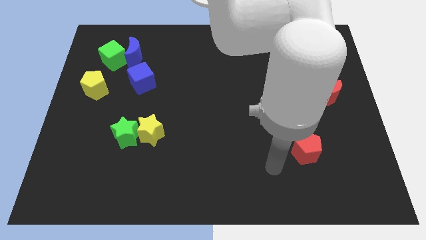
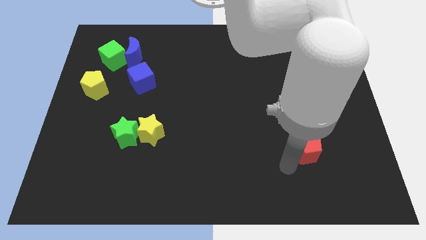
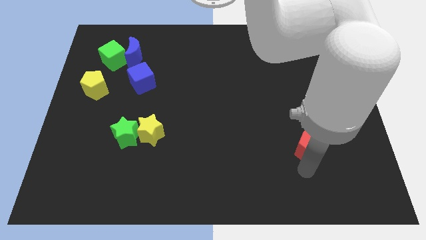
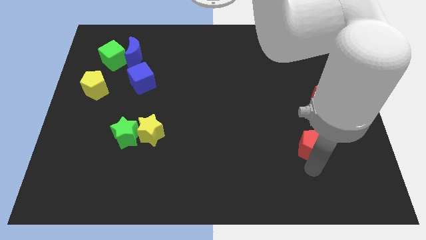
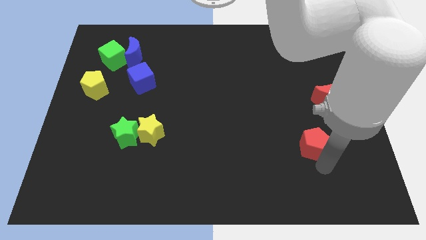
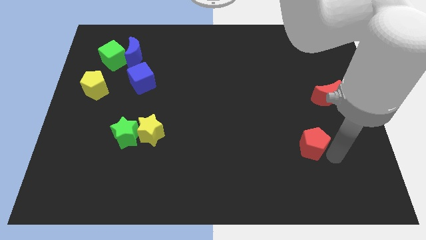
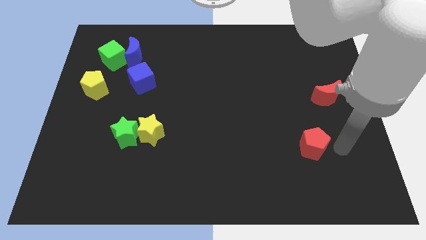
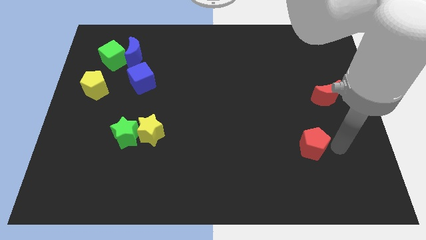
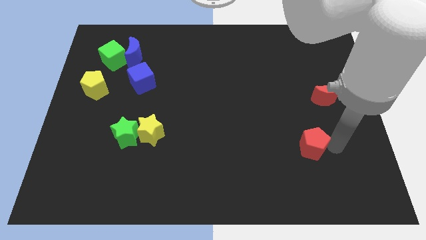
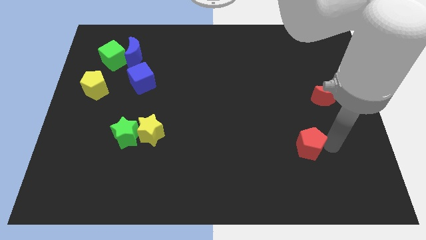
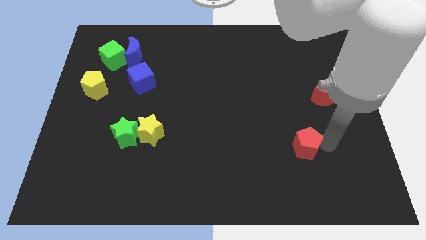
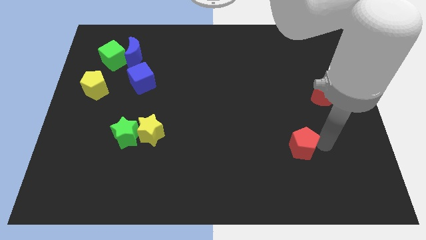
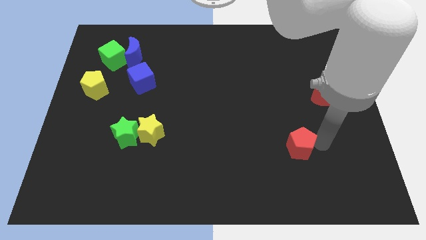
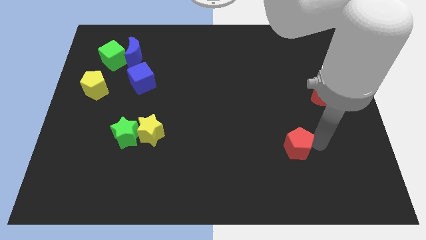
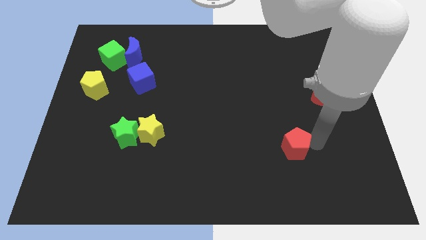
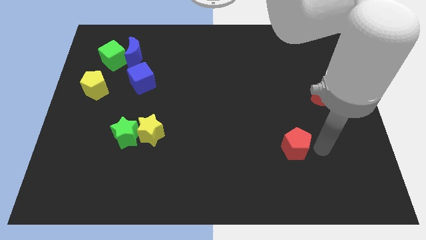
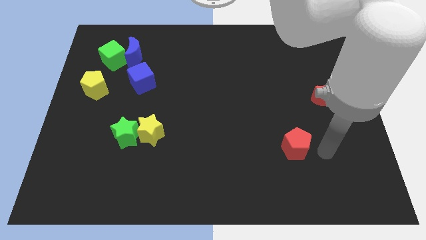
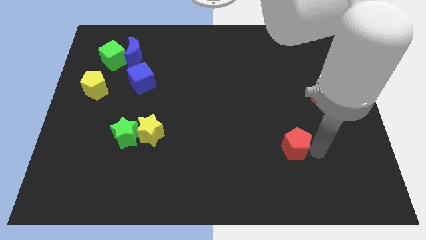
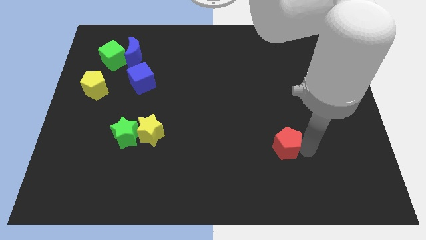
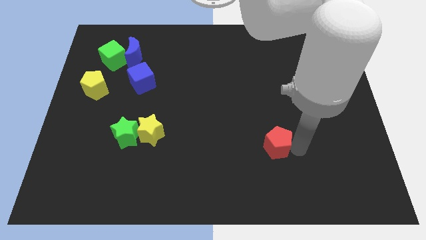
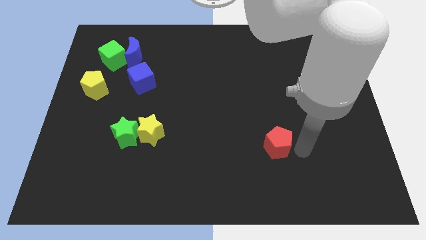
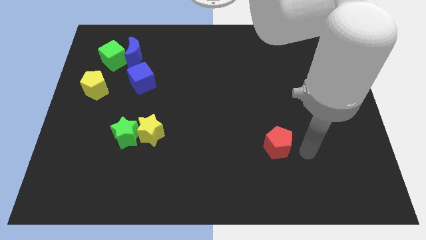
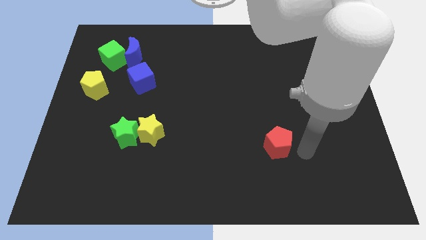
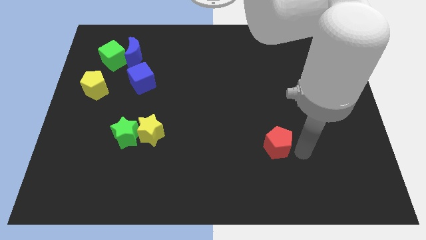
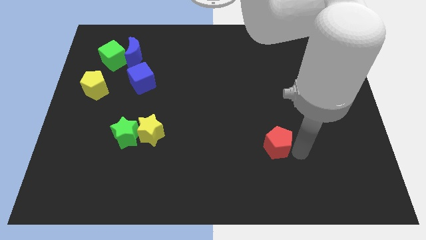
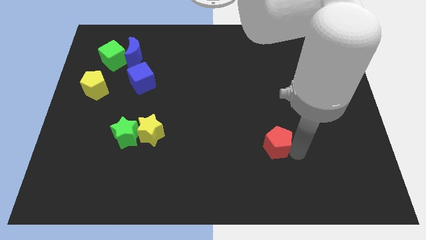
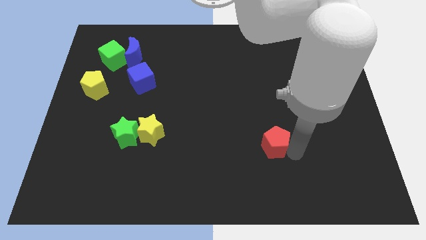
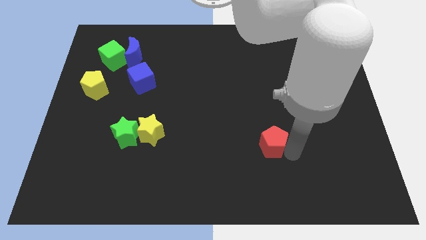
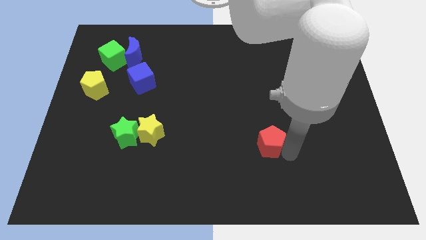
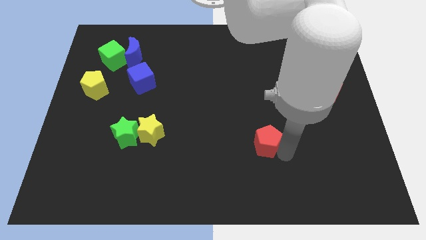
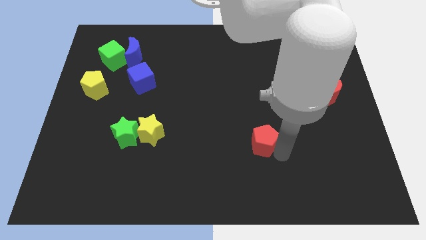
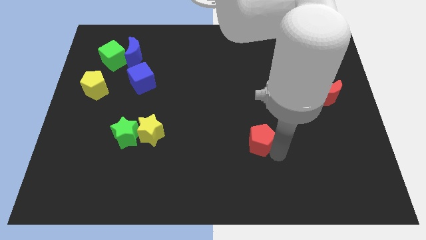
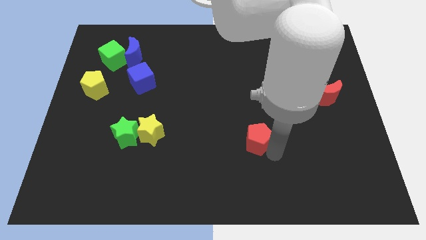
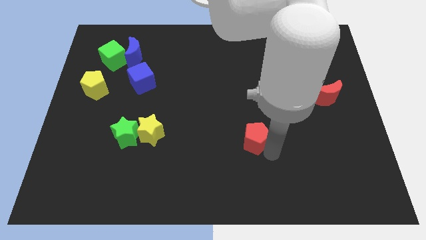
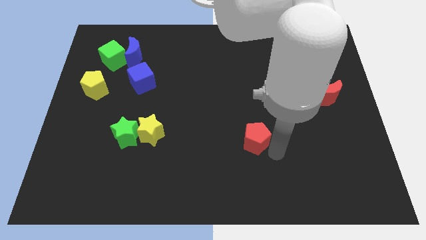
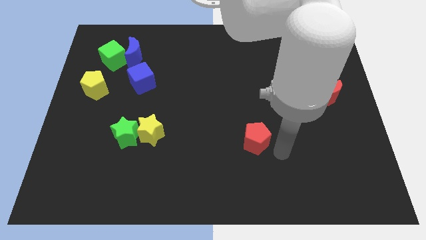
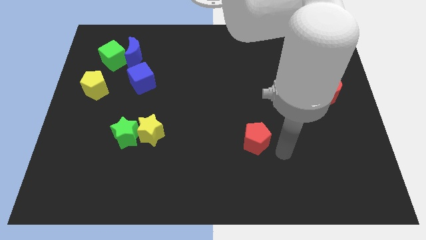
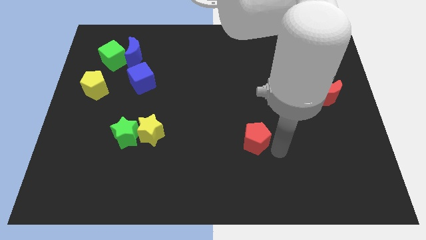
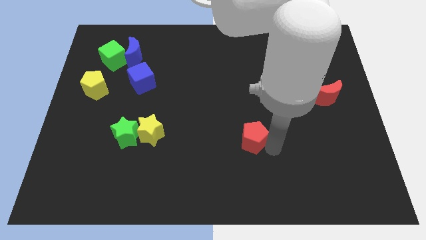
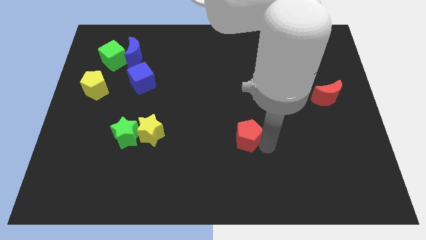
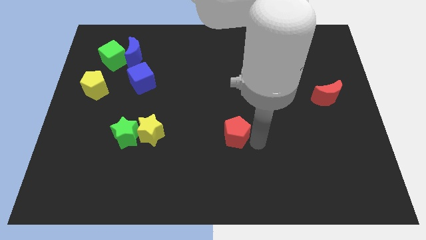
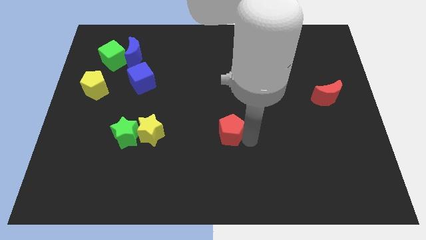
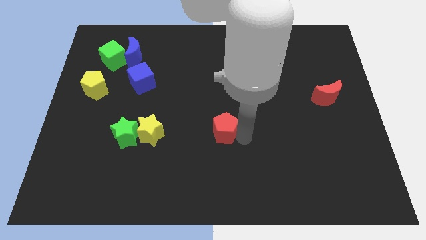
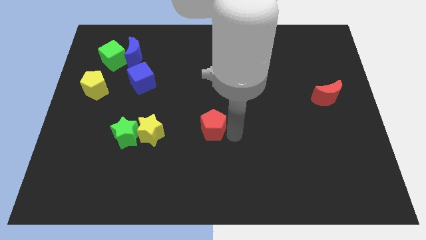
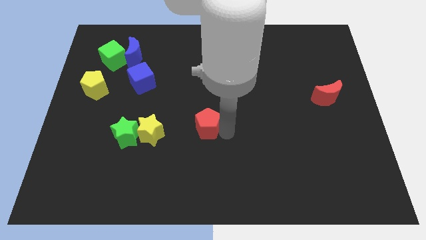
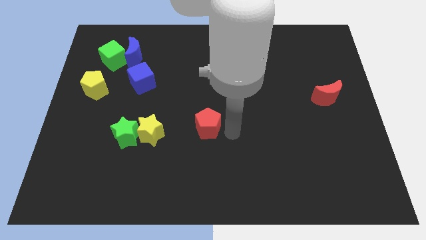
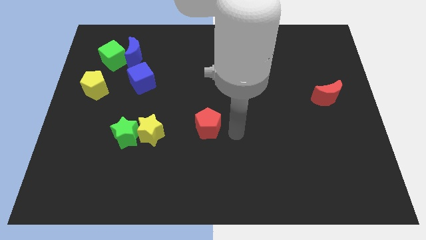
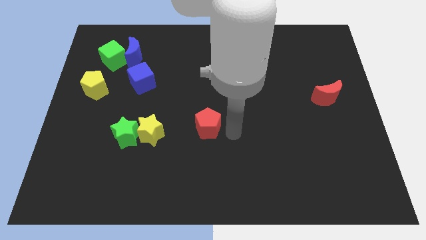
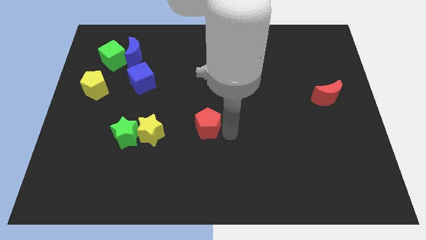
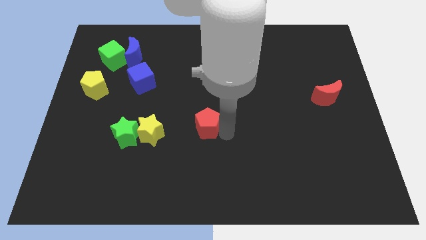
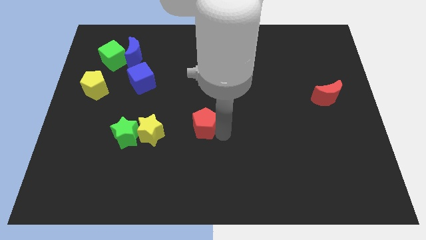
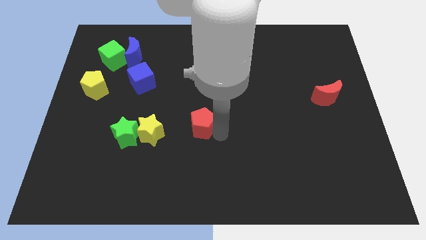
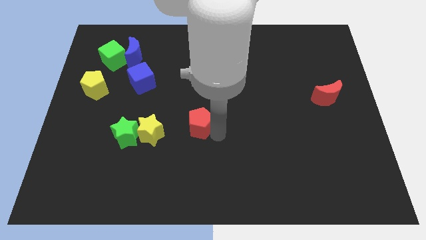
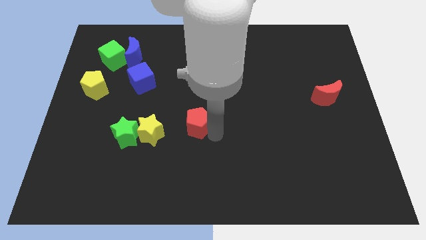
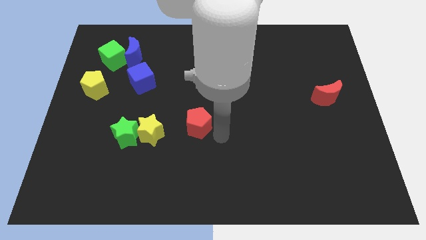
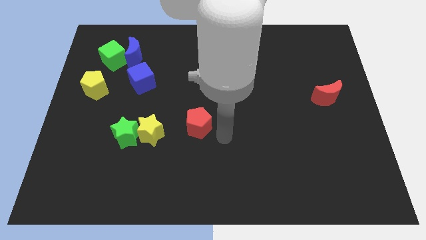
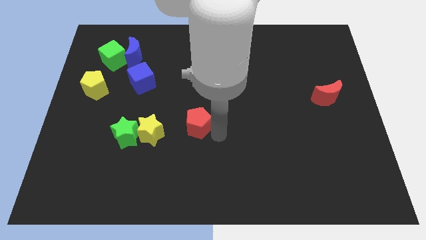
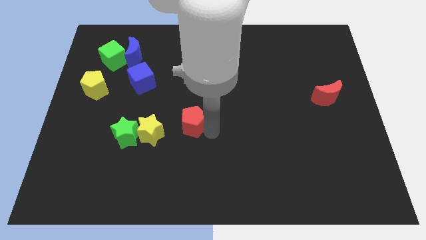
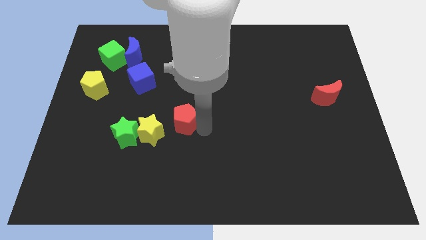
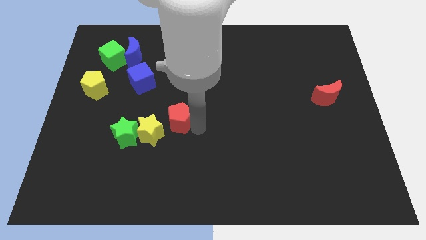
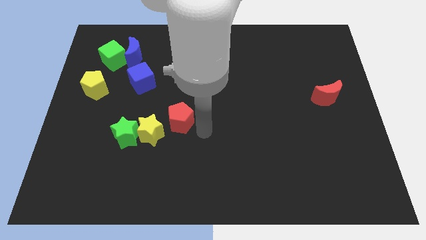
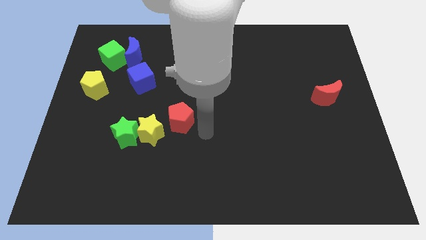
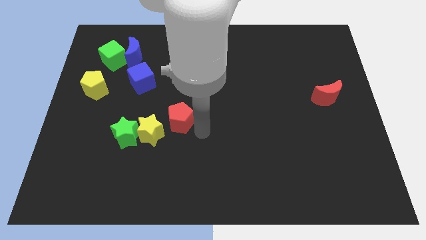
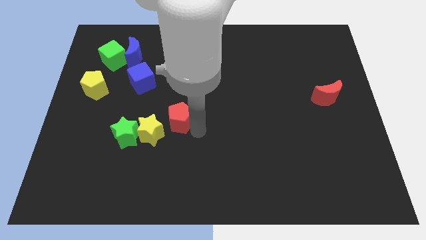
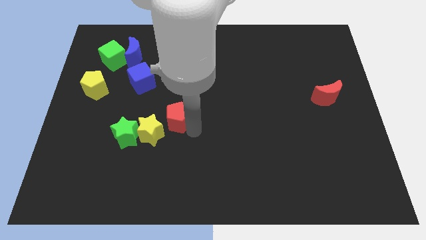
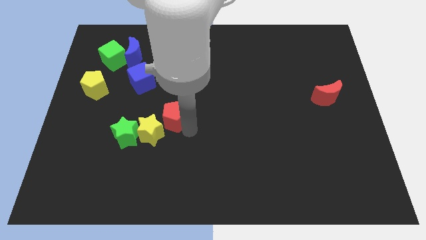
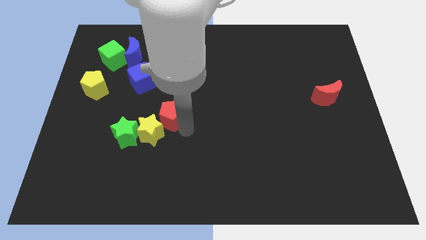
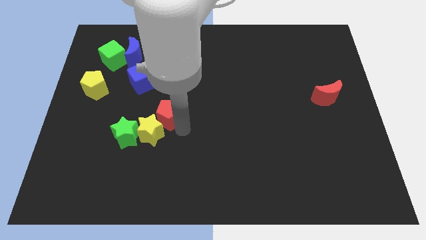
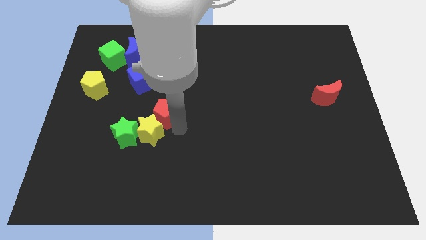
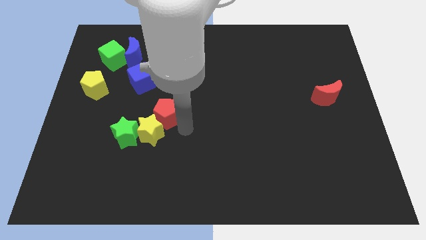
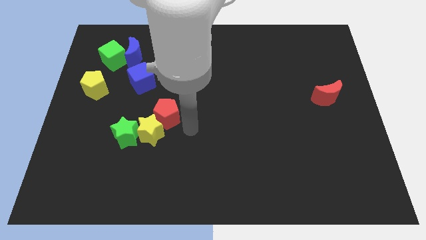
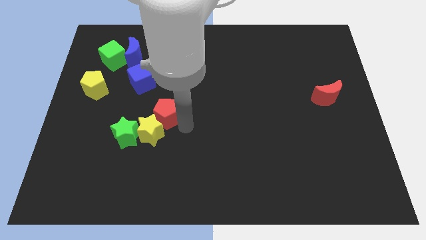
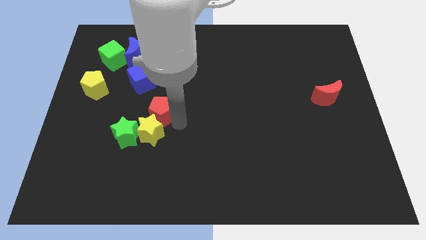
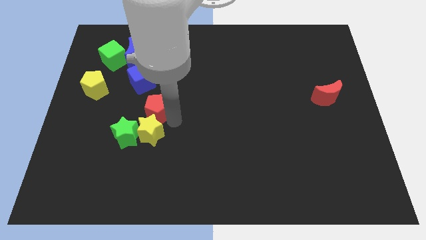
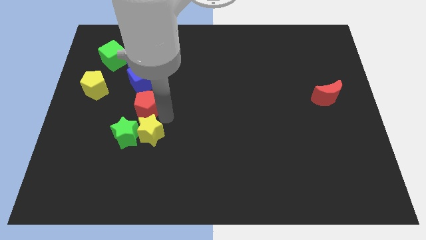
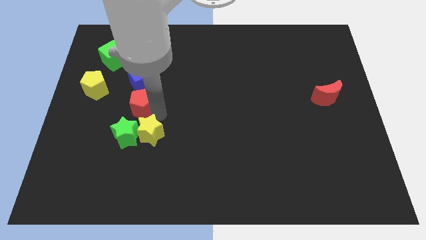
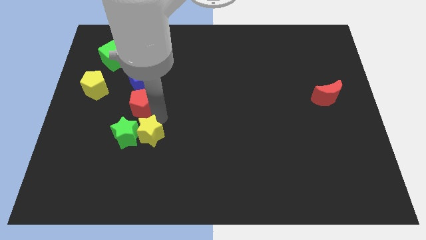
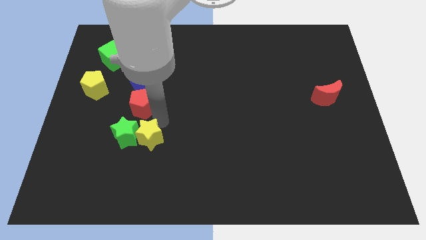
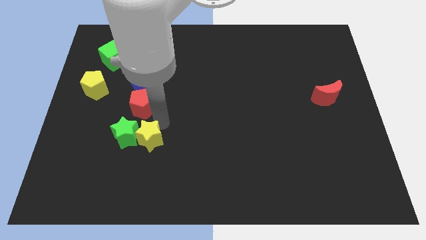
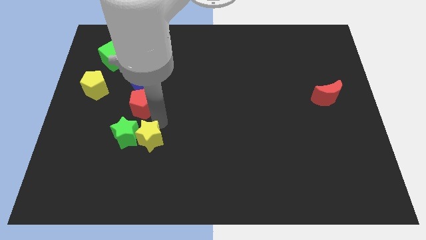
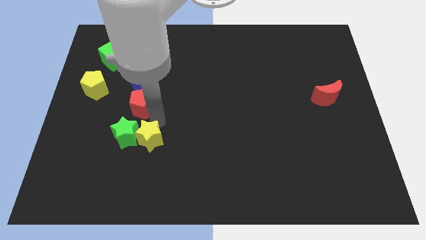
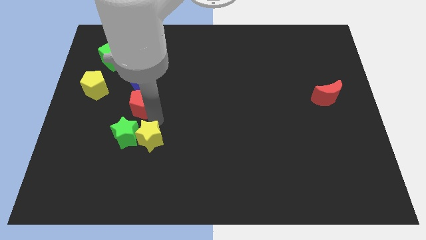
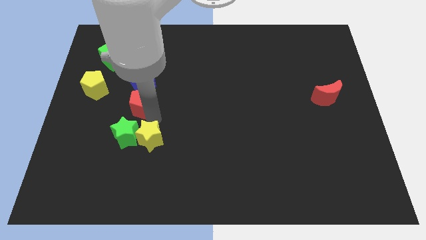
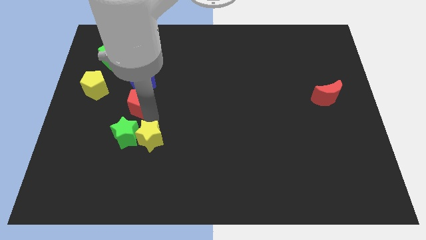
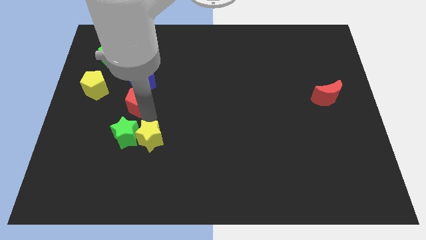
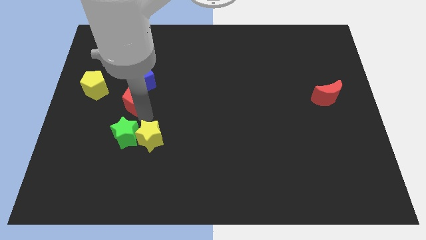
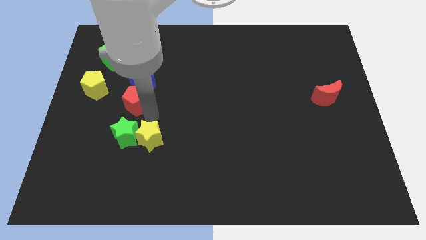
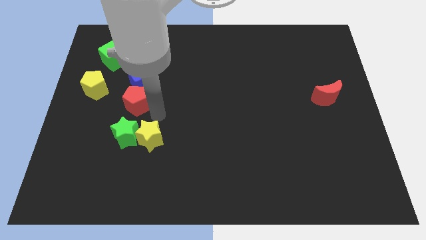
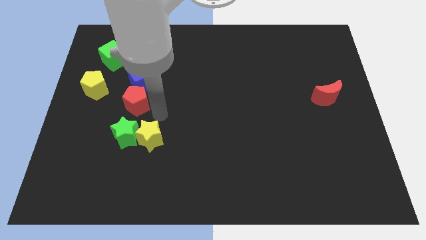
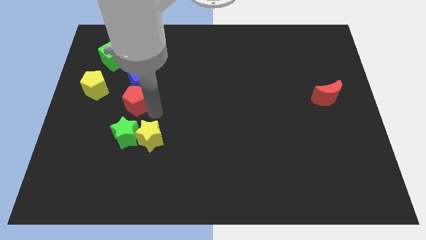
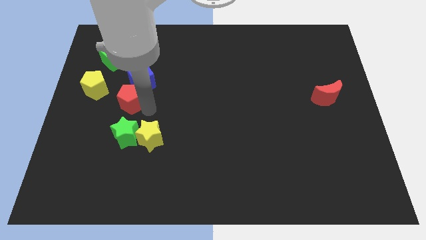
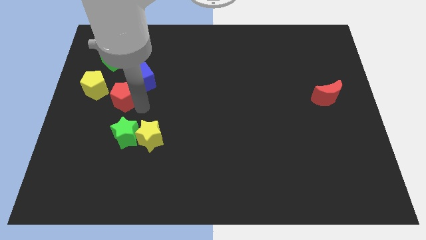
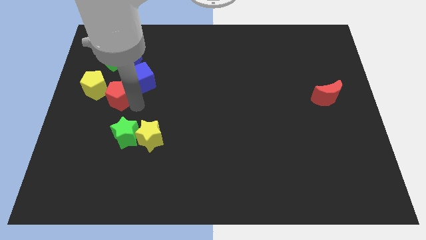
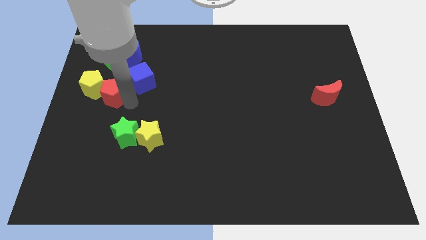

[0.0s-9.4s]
move the red pentagon close to the yellow pentagon
